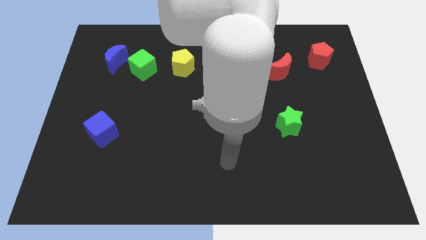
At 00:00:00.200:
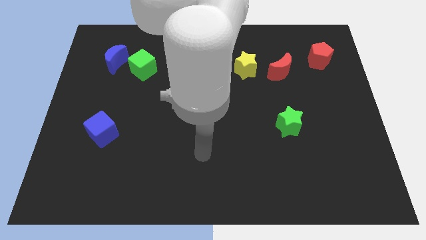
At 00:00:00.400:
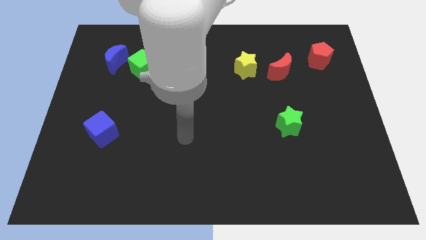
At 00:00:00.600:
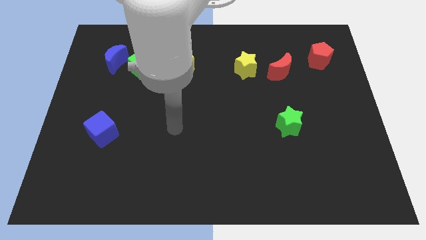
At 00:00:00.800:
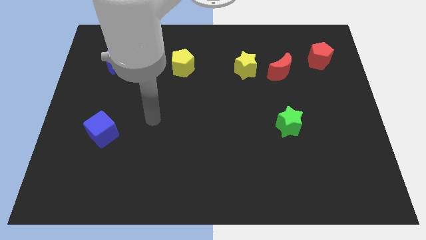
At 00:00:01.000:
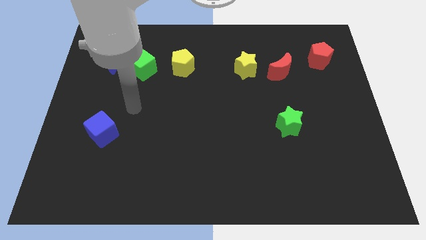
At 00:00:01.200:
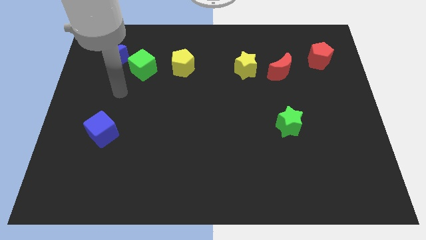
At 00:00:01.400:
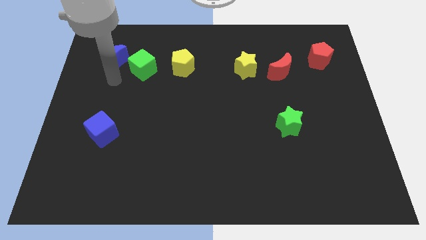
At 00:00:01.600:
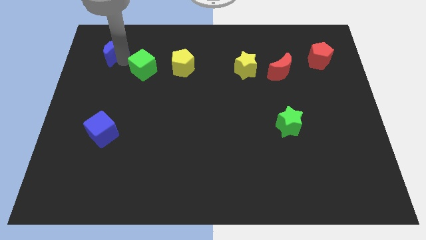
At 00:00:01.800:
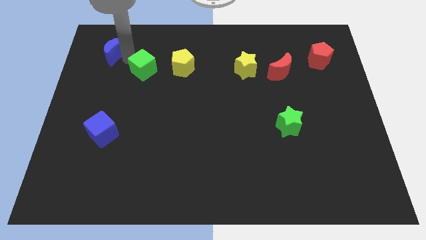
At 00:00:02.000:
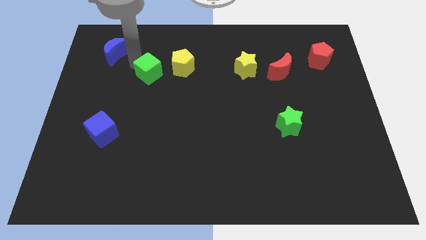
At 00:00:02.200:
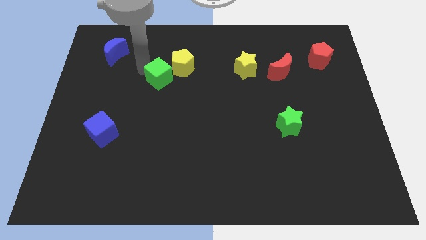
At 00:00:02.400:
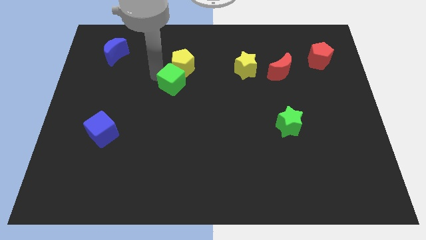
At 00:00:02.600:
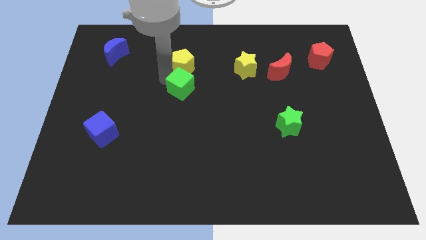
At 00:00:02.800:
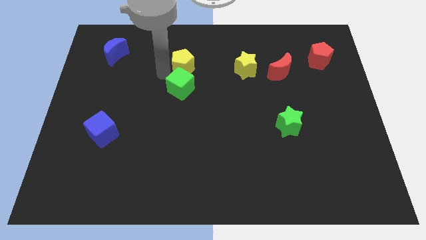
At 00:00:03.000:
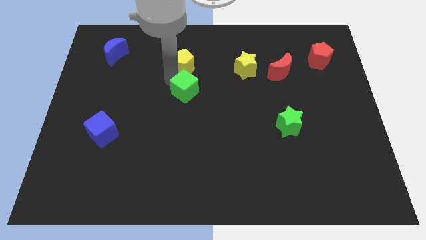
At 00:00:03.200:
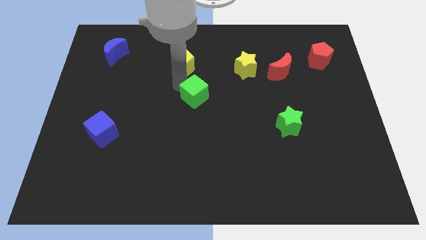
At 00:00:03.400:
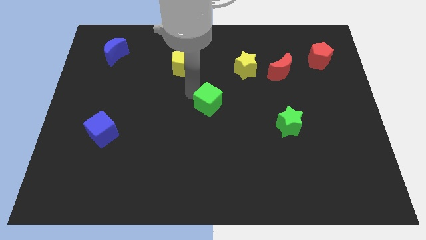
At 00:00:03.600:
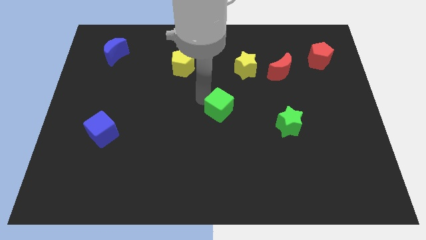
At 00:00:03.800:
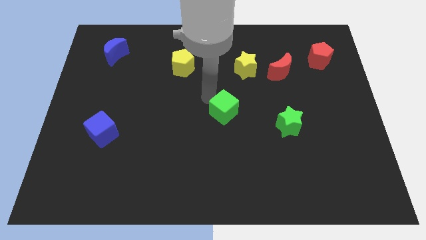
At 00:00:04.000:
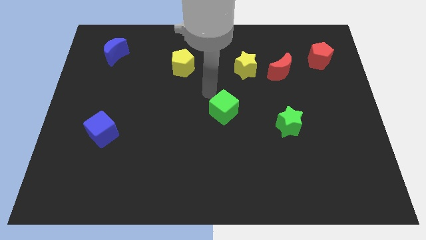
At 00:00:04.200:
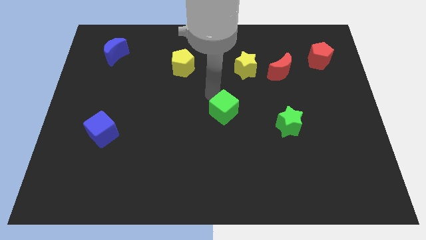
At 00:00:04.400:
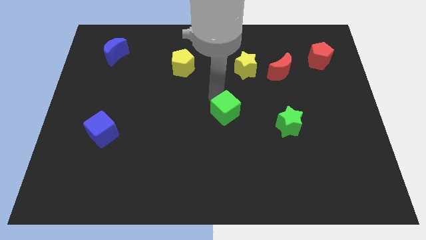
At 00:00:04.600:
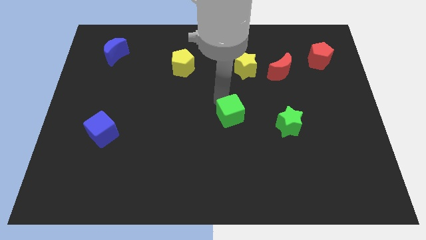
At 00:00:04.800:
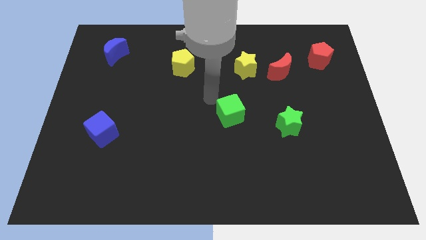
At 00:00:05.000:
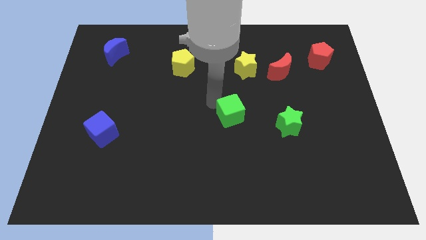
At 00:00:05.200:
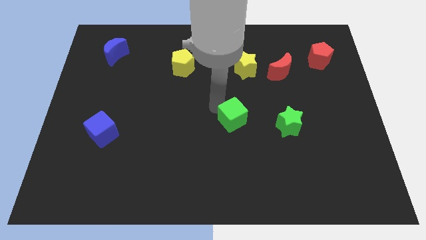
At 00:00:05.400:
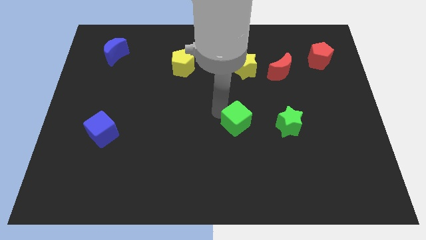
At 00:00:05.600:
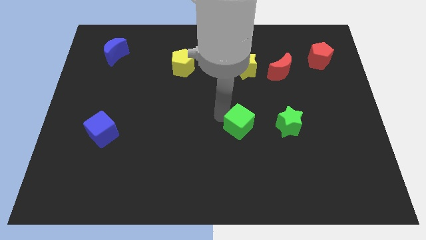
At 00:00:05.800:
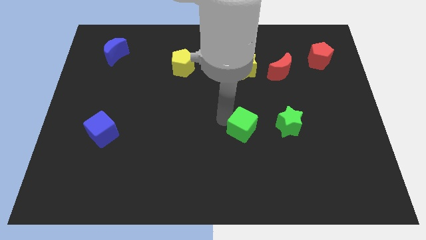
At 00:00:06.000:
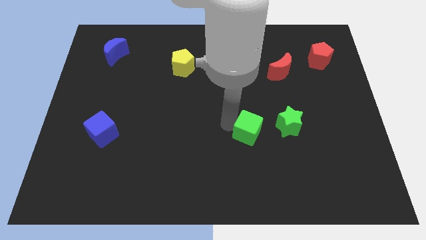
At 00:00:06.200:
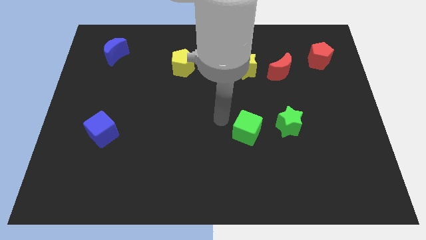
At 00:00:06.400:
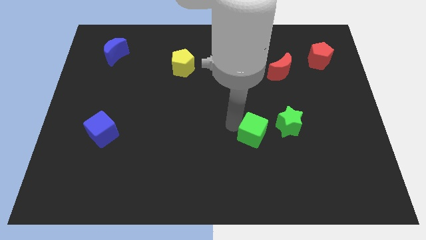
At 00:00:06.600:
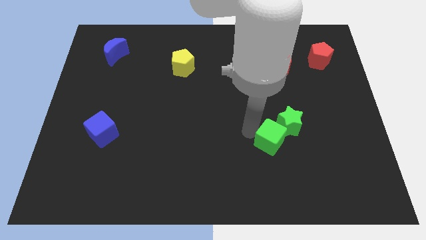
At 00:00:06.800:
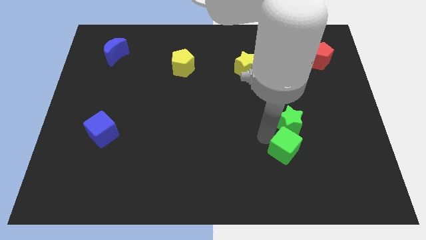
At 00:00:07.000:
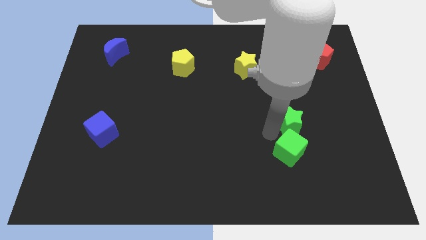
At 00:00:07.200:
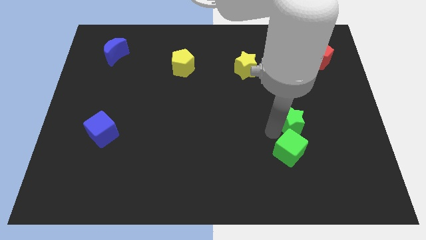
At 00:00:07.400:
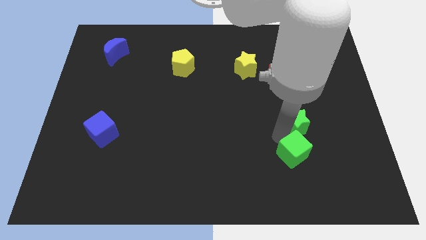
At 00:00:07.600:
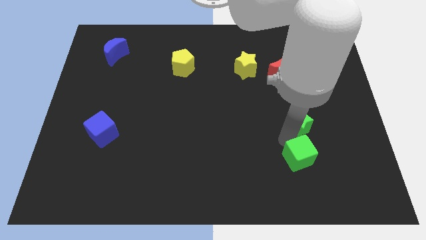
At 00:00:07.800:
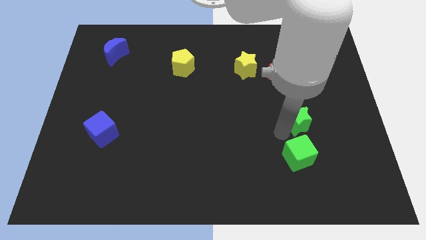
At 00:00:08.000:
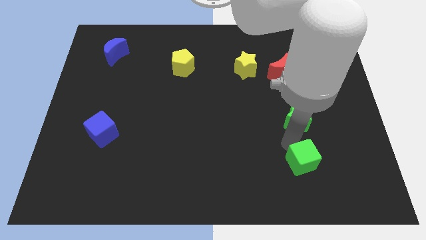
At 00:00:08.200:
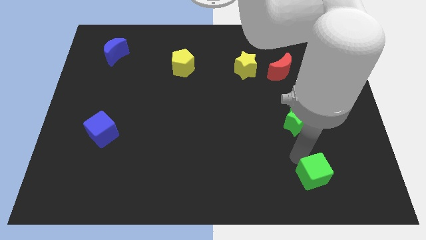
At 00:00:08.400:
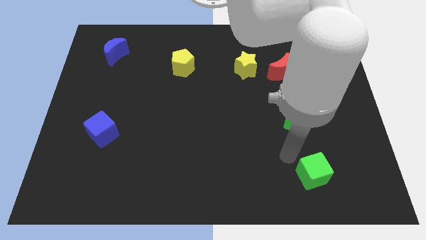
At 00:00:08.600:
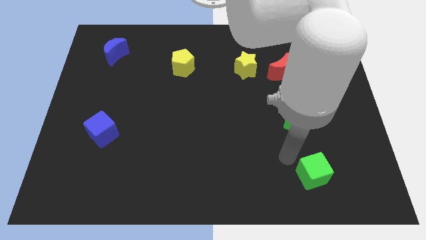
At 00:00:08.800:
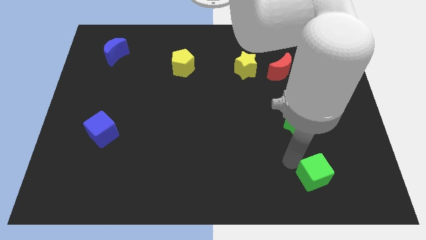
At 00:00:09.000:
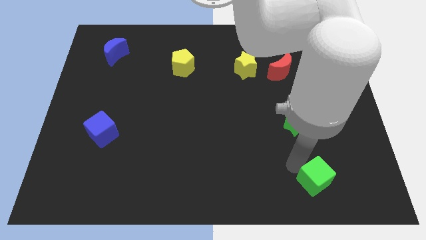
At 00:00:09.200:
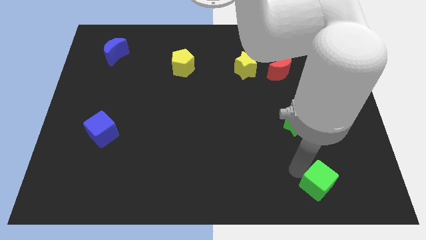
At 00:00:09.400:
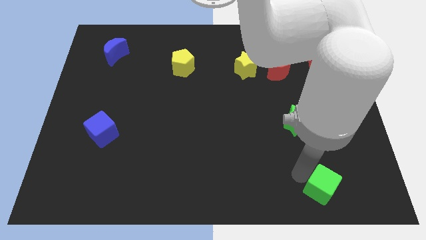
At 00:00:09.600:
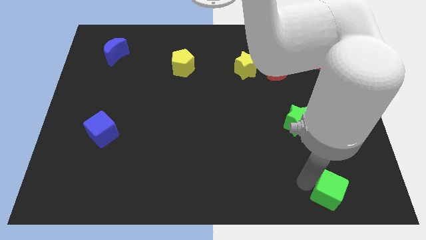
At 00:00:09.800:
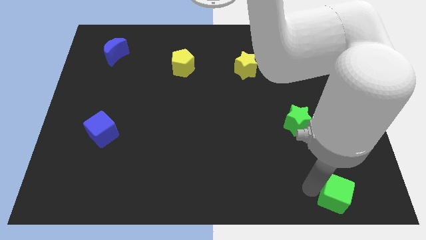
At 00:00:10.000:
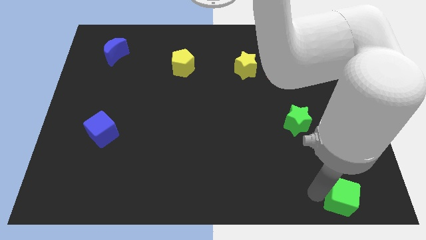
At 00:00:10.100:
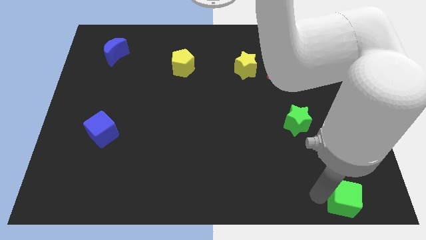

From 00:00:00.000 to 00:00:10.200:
put the green cube to the lower right corner

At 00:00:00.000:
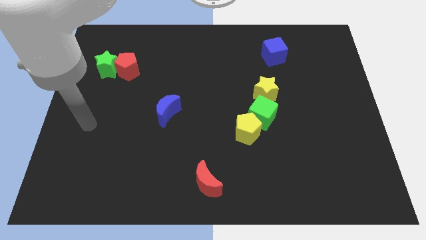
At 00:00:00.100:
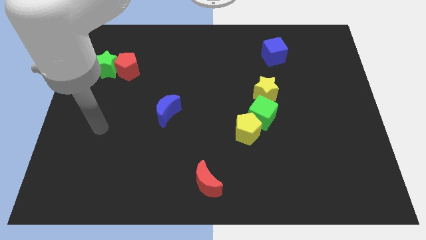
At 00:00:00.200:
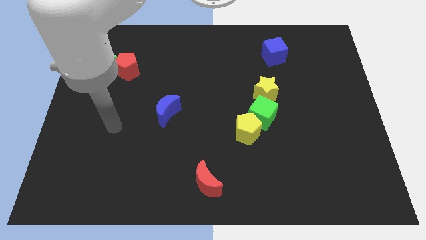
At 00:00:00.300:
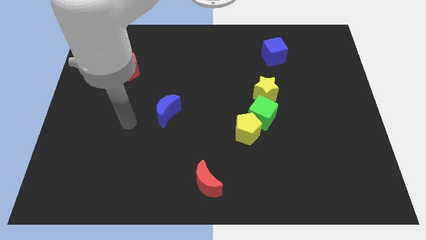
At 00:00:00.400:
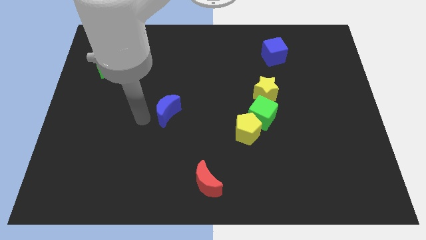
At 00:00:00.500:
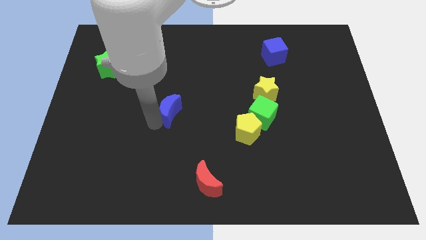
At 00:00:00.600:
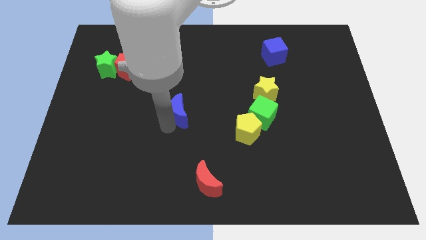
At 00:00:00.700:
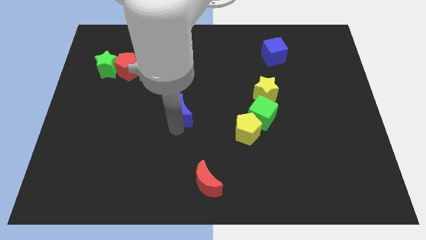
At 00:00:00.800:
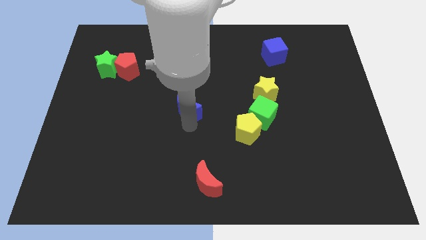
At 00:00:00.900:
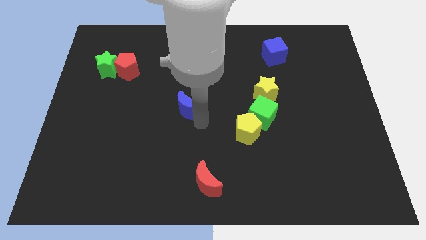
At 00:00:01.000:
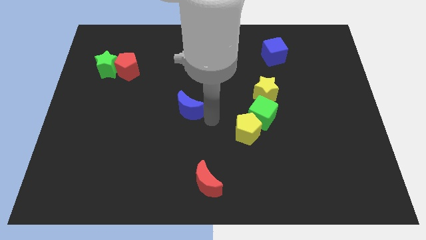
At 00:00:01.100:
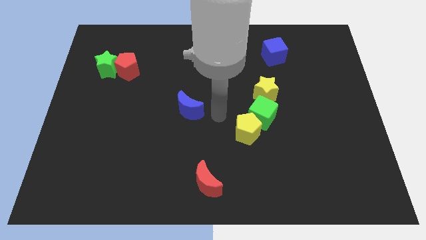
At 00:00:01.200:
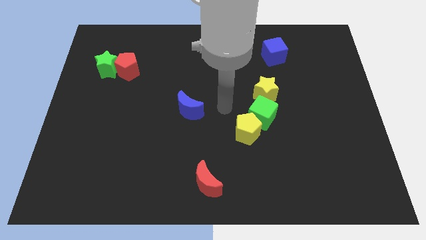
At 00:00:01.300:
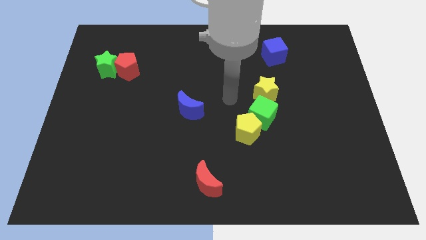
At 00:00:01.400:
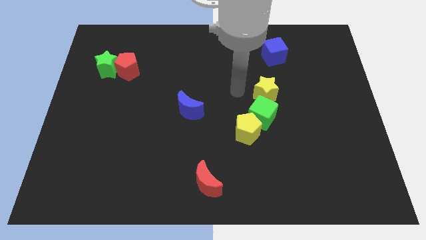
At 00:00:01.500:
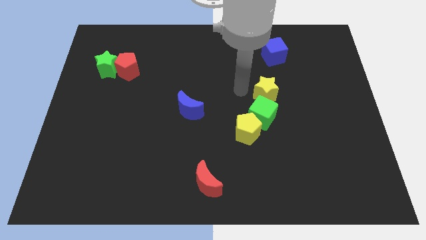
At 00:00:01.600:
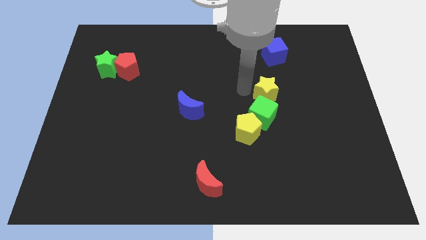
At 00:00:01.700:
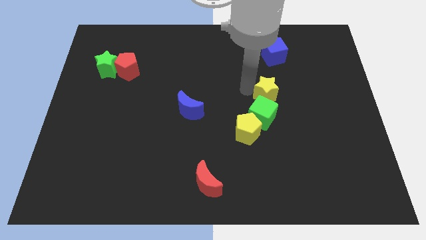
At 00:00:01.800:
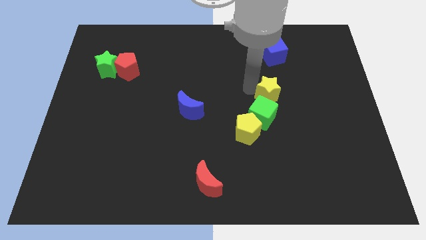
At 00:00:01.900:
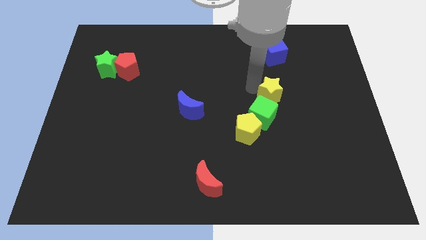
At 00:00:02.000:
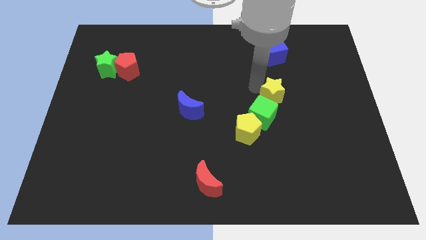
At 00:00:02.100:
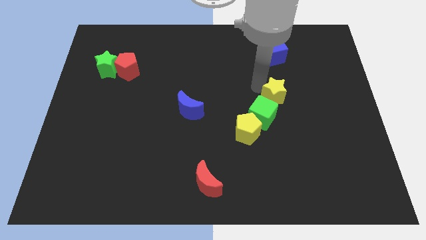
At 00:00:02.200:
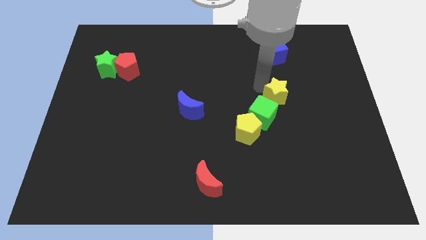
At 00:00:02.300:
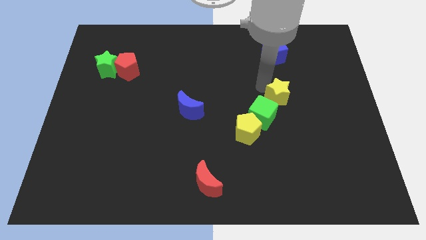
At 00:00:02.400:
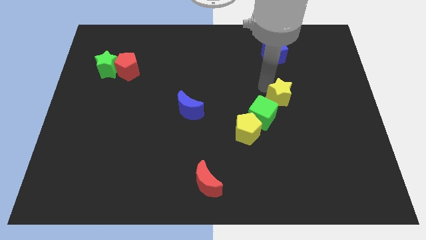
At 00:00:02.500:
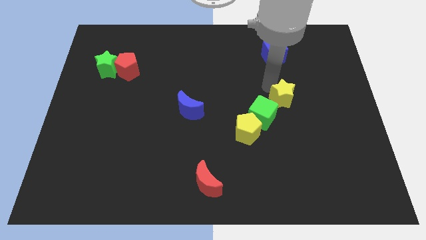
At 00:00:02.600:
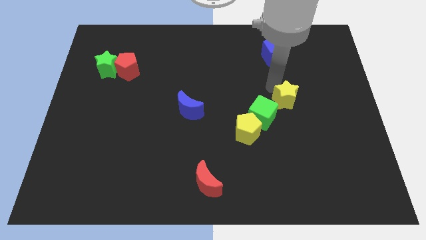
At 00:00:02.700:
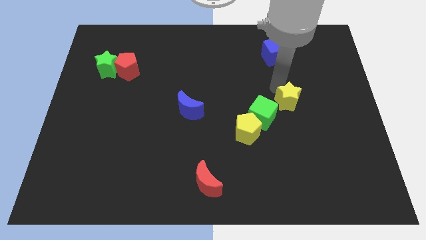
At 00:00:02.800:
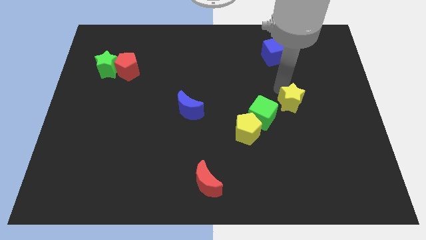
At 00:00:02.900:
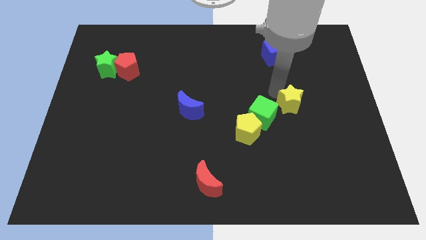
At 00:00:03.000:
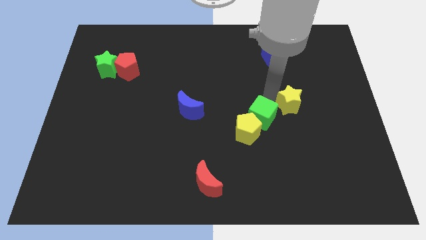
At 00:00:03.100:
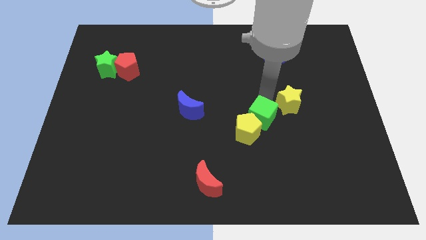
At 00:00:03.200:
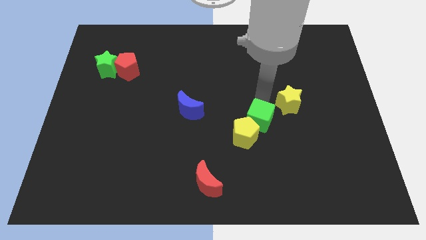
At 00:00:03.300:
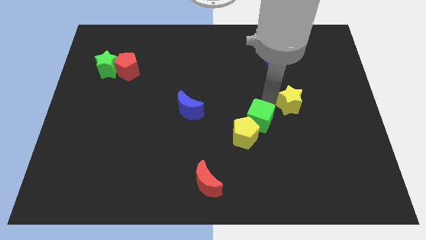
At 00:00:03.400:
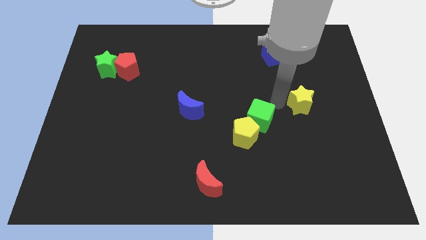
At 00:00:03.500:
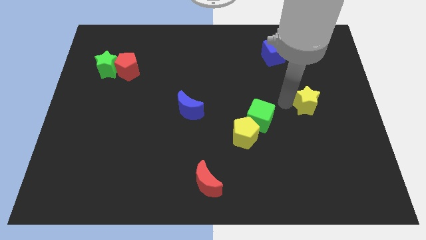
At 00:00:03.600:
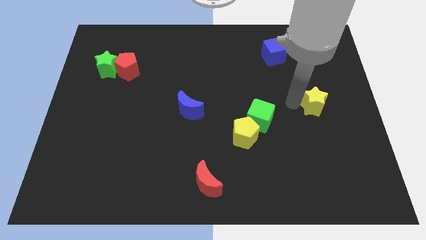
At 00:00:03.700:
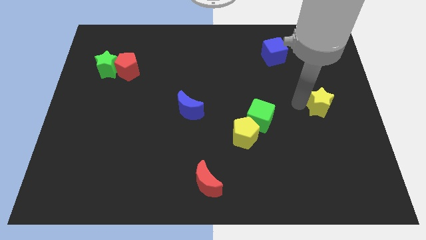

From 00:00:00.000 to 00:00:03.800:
slide the yellow star to the center right
